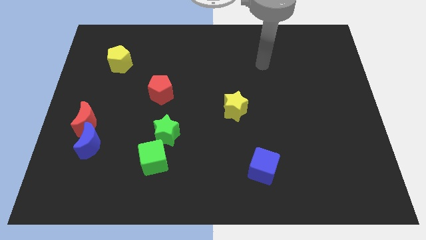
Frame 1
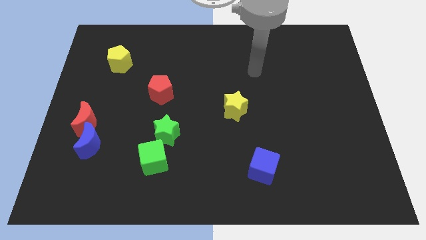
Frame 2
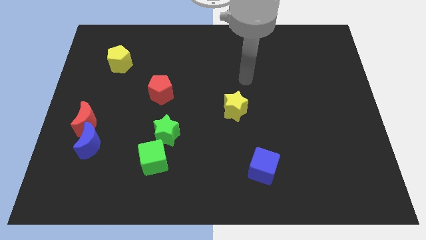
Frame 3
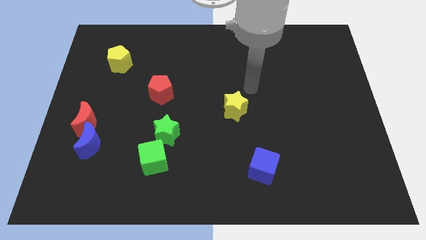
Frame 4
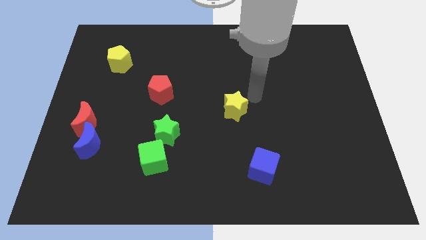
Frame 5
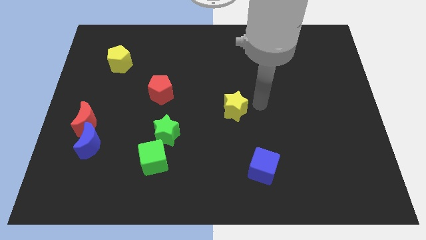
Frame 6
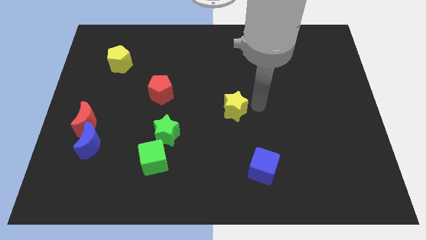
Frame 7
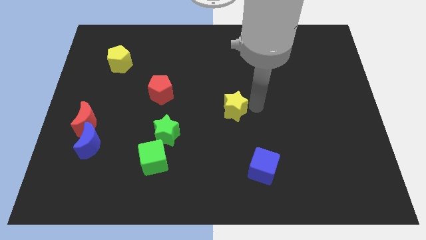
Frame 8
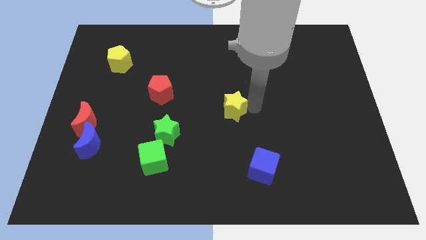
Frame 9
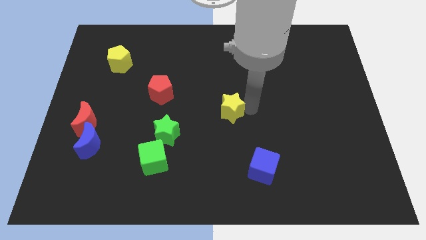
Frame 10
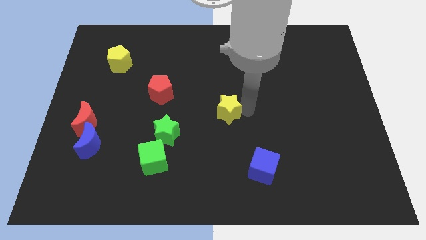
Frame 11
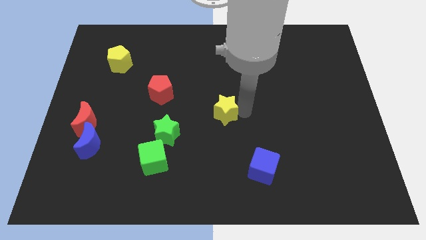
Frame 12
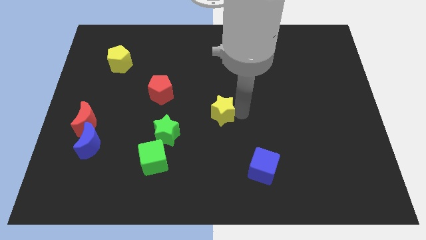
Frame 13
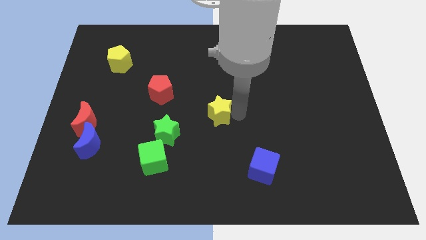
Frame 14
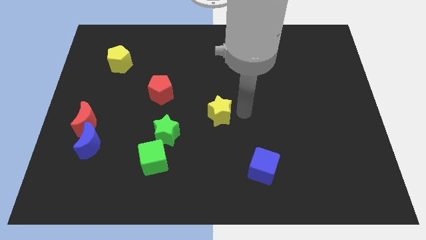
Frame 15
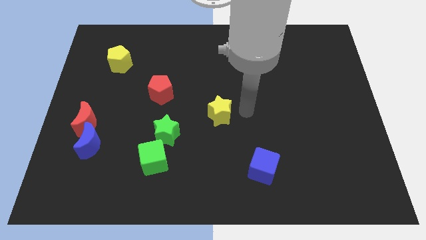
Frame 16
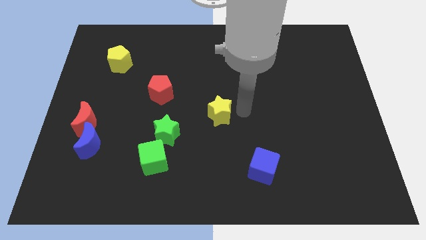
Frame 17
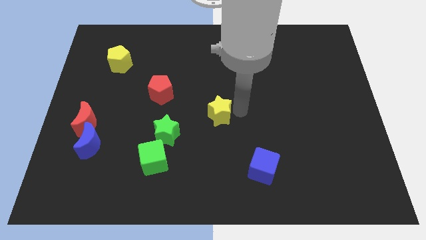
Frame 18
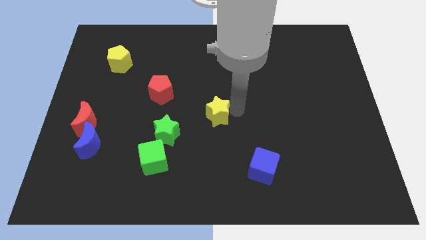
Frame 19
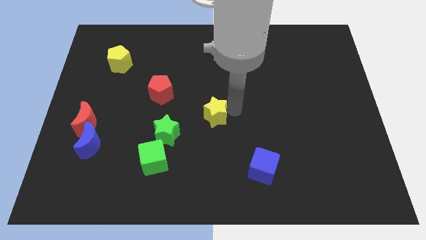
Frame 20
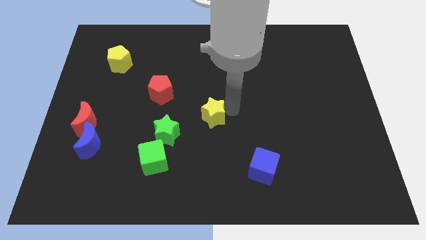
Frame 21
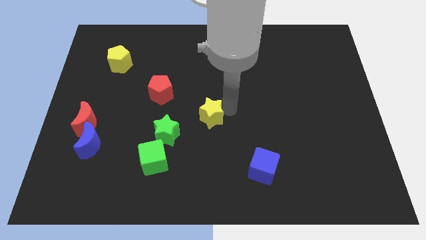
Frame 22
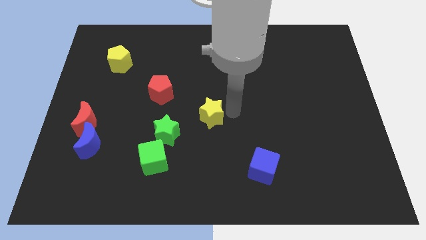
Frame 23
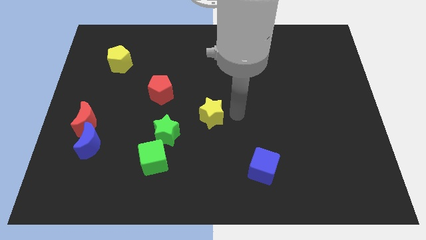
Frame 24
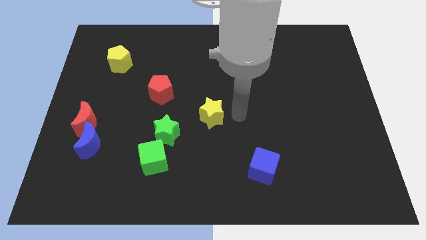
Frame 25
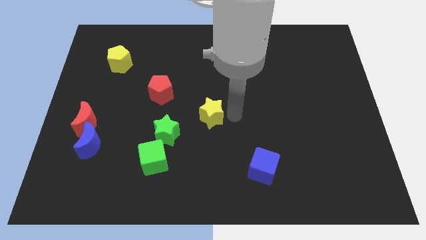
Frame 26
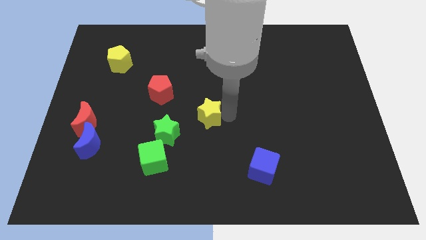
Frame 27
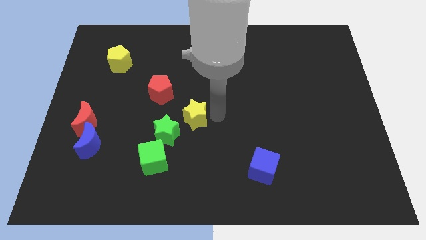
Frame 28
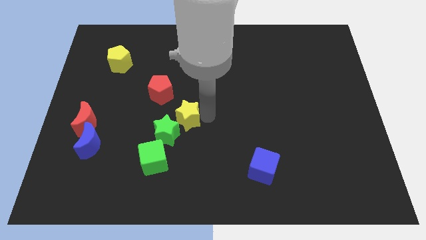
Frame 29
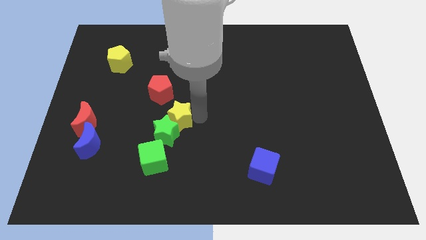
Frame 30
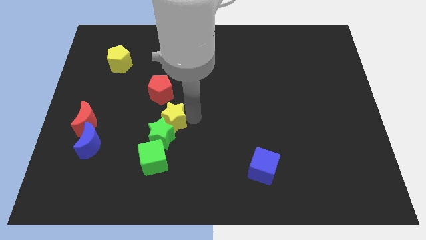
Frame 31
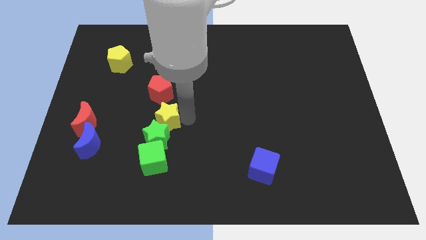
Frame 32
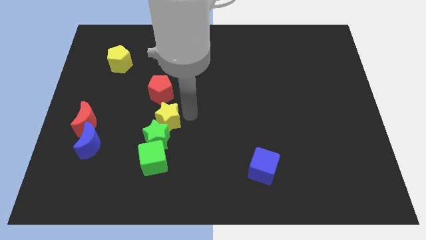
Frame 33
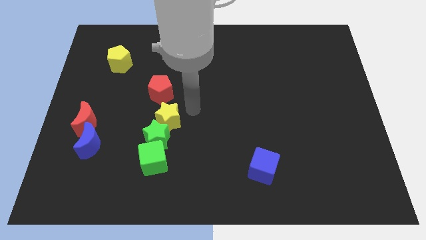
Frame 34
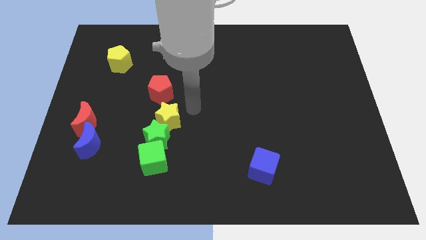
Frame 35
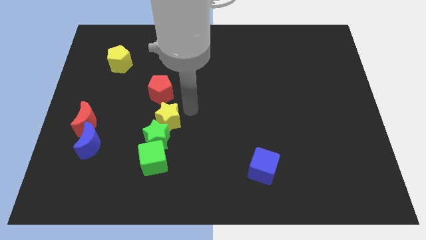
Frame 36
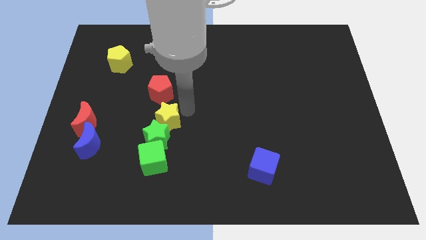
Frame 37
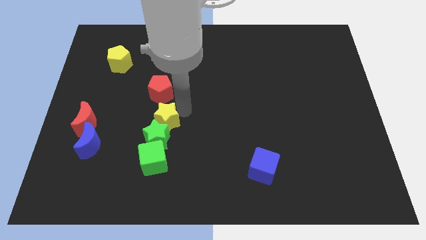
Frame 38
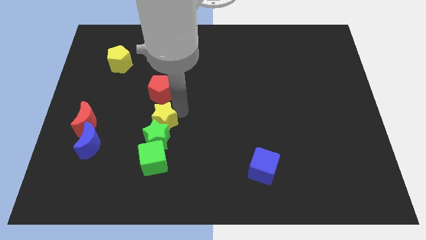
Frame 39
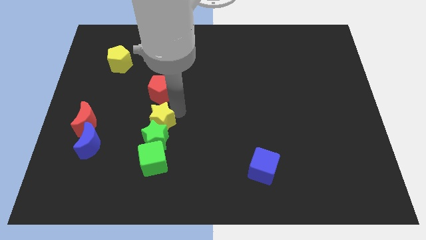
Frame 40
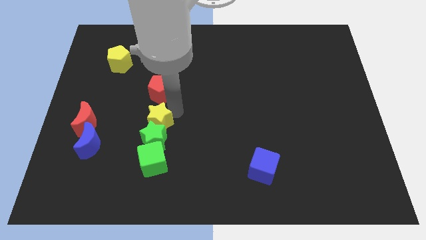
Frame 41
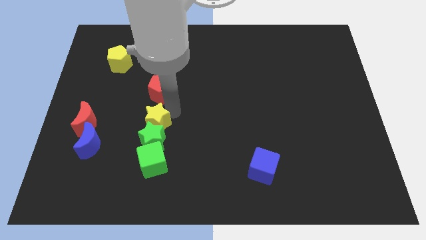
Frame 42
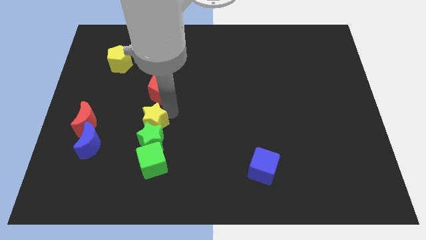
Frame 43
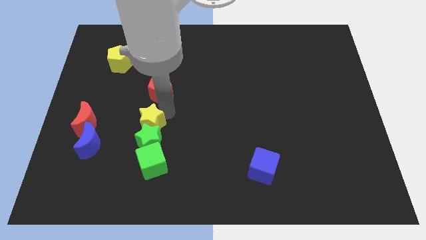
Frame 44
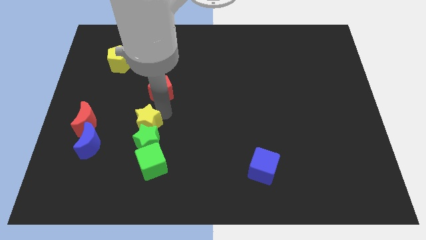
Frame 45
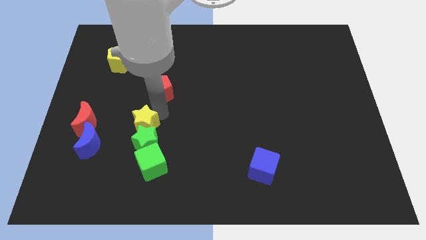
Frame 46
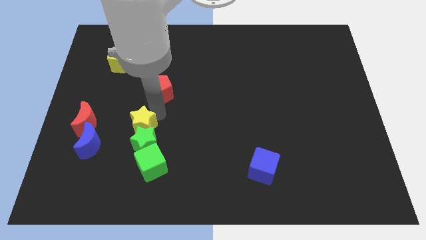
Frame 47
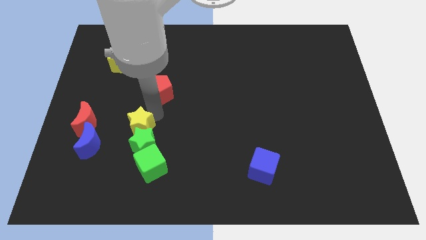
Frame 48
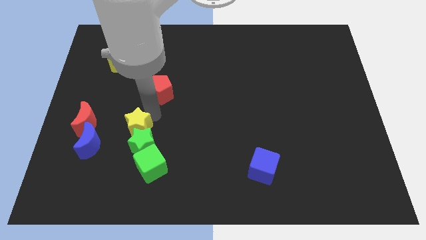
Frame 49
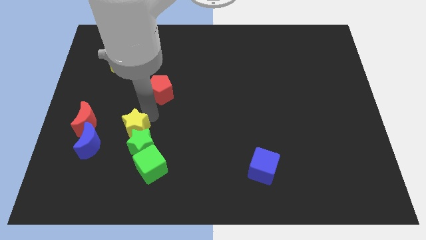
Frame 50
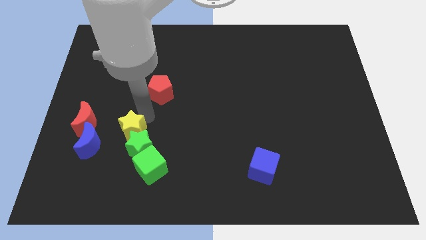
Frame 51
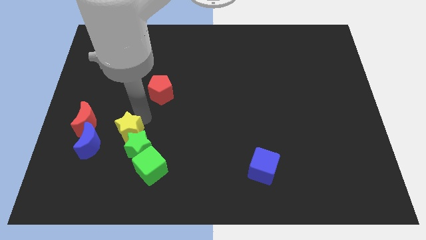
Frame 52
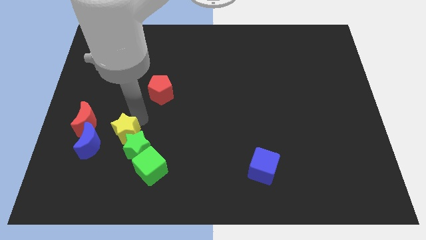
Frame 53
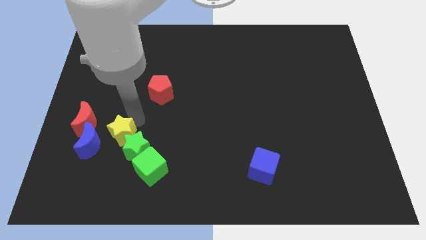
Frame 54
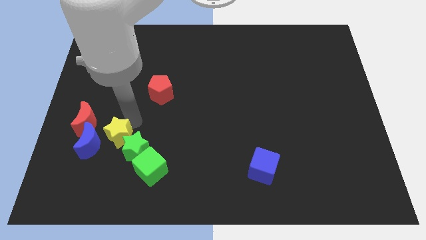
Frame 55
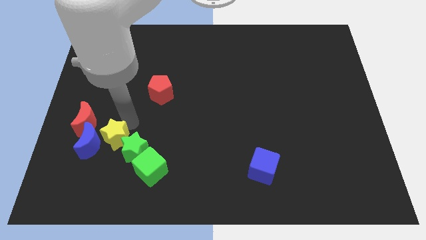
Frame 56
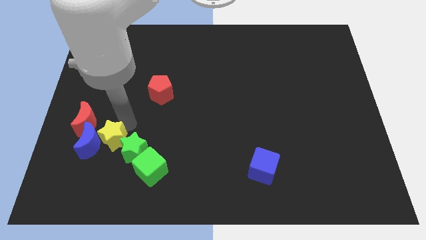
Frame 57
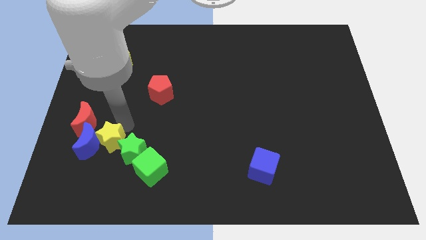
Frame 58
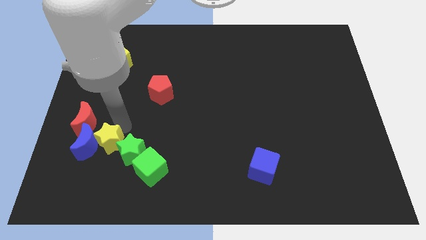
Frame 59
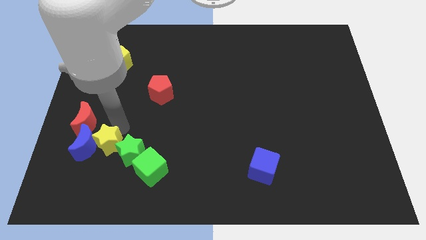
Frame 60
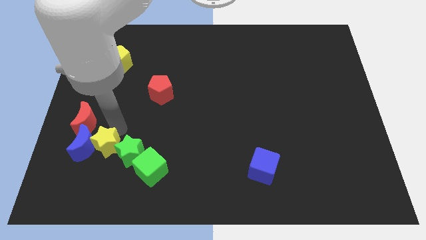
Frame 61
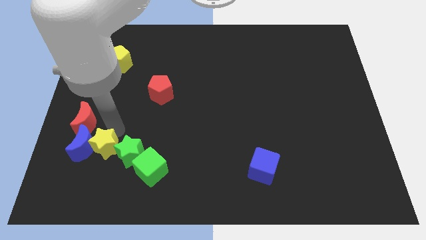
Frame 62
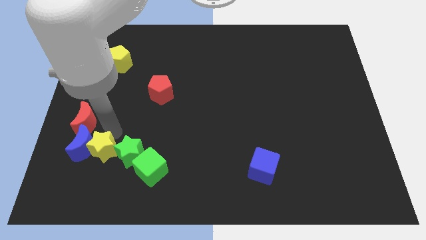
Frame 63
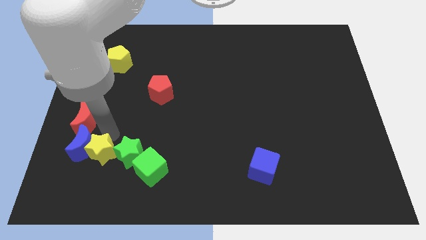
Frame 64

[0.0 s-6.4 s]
put the yellow star below the red moon

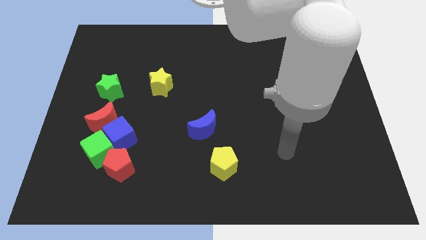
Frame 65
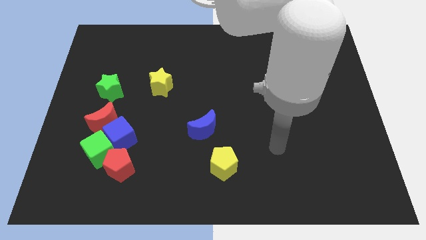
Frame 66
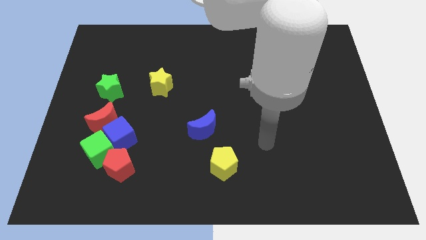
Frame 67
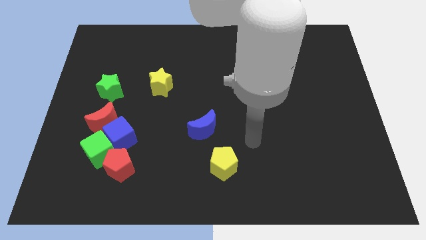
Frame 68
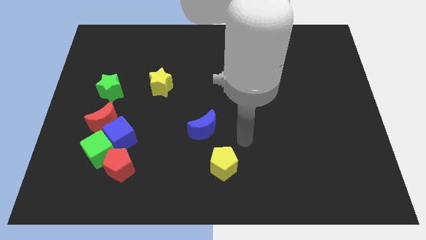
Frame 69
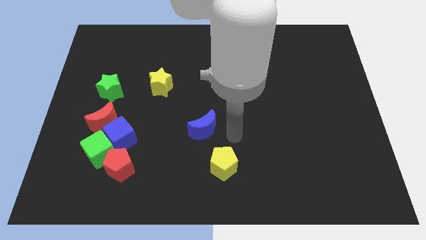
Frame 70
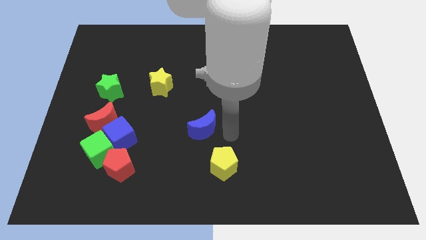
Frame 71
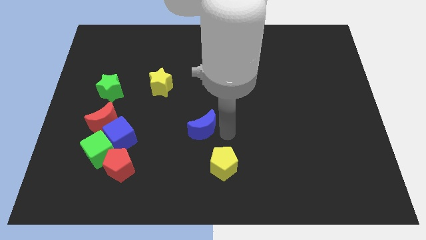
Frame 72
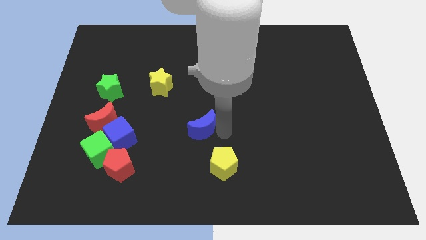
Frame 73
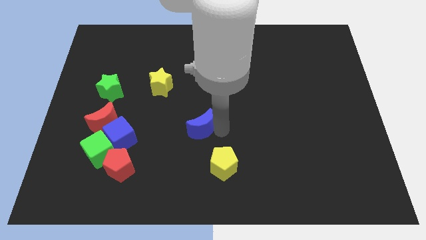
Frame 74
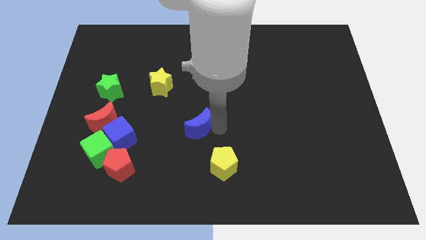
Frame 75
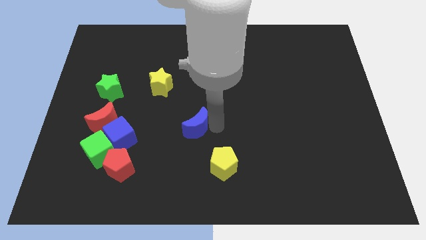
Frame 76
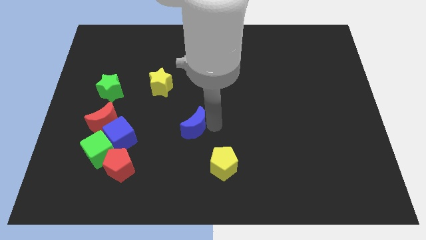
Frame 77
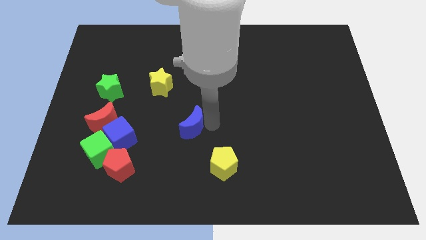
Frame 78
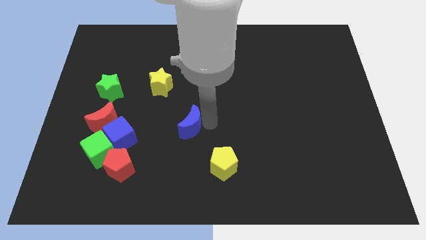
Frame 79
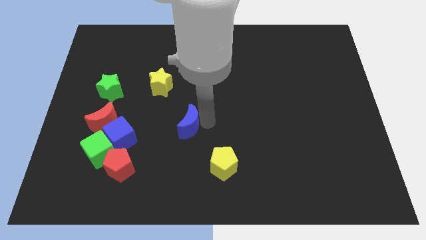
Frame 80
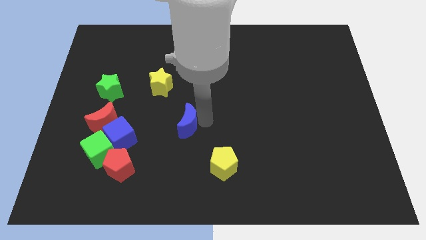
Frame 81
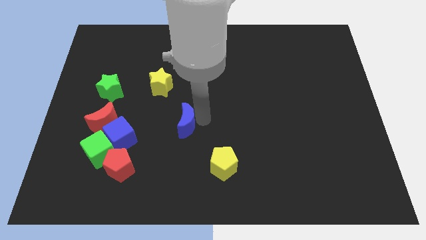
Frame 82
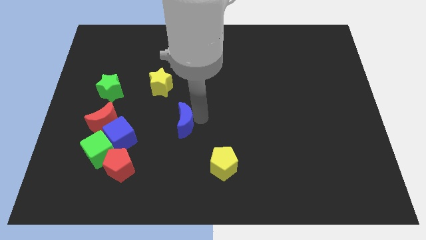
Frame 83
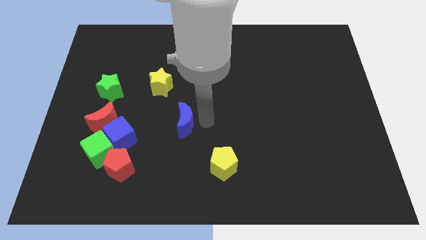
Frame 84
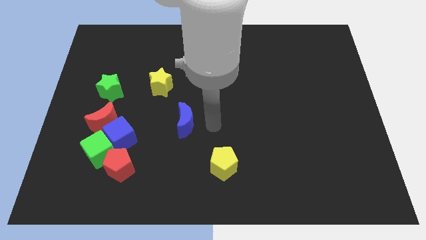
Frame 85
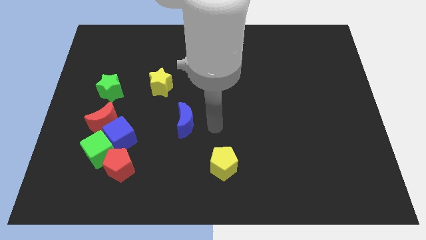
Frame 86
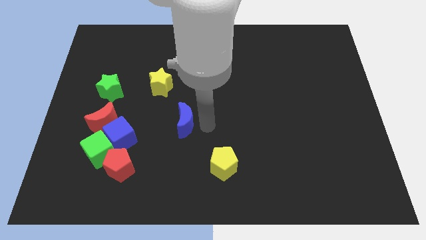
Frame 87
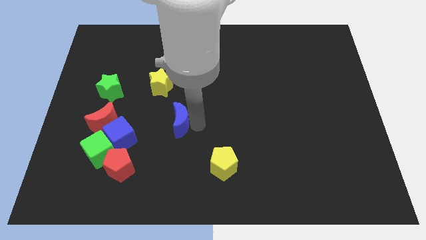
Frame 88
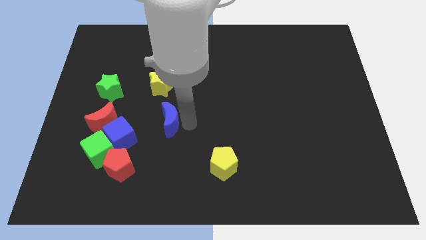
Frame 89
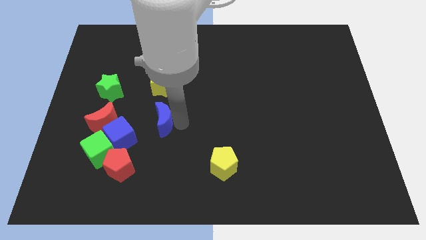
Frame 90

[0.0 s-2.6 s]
slide the blue moon to the top right side of the blue cube
